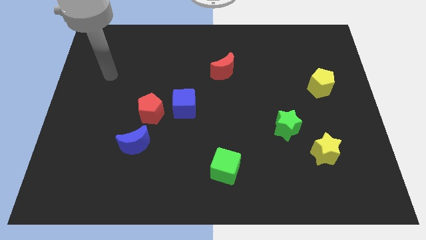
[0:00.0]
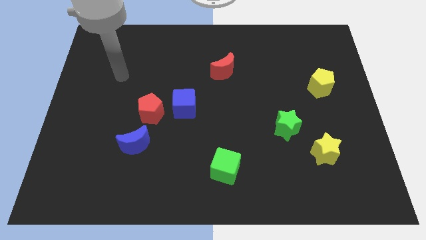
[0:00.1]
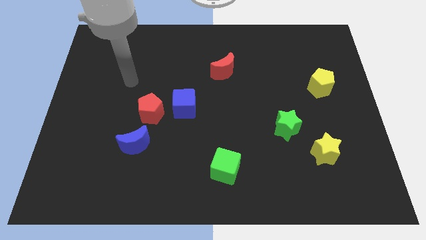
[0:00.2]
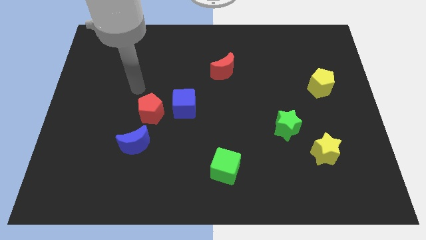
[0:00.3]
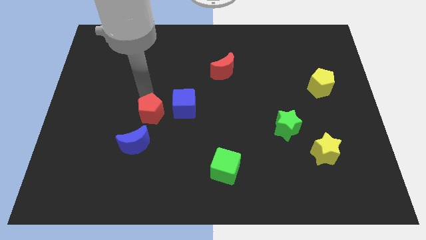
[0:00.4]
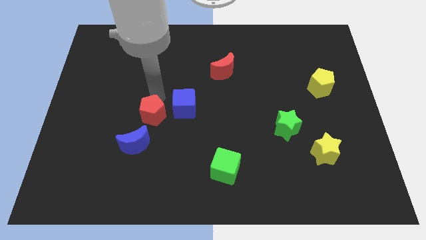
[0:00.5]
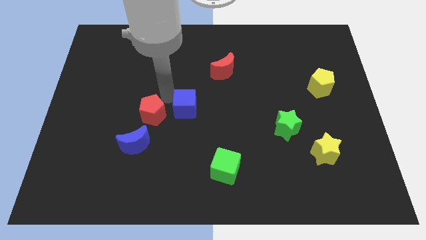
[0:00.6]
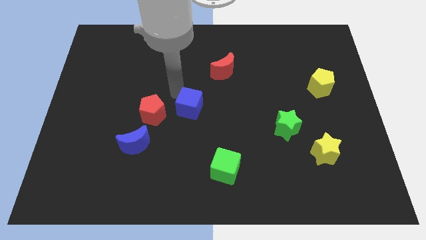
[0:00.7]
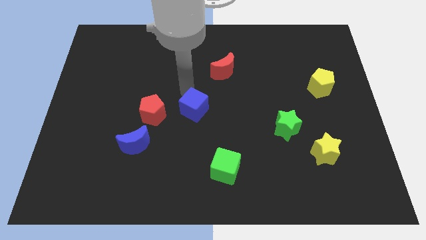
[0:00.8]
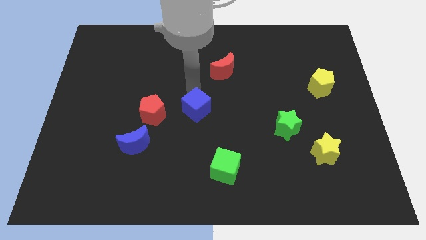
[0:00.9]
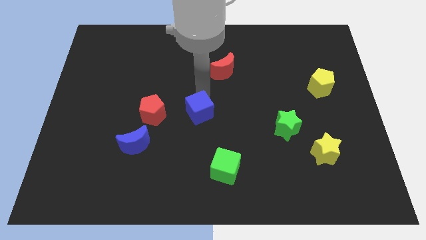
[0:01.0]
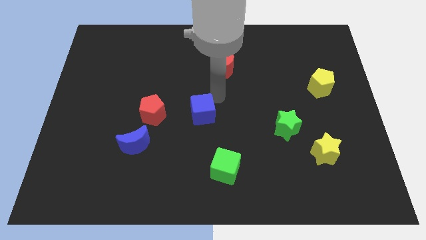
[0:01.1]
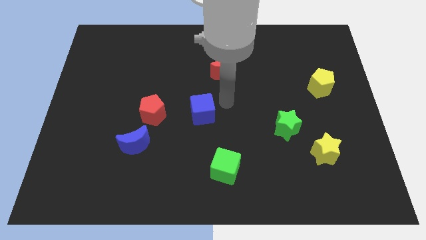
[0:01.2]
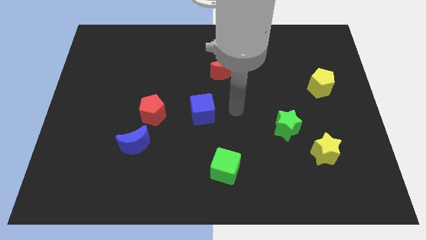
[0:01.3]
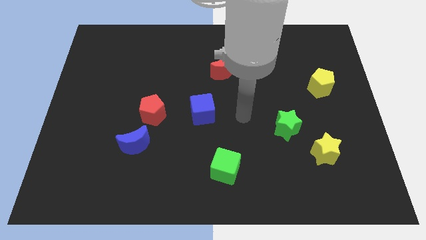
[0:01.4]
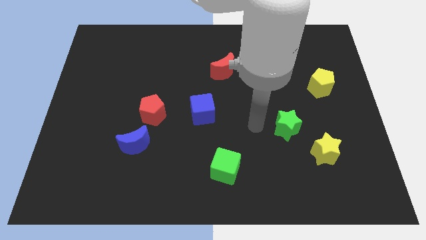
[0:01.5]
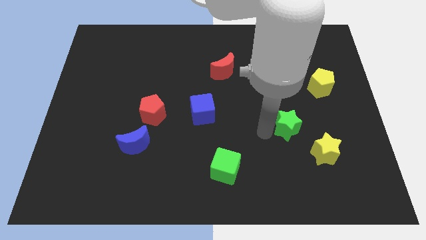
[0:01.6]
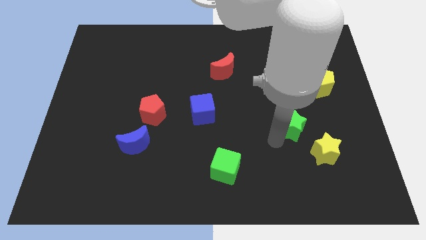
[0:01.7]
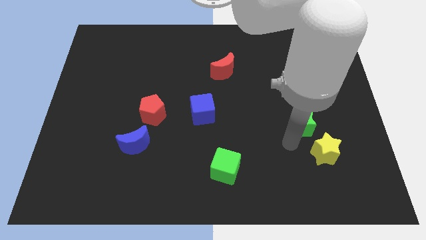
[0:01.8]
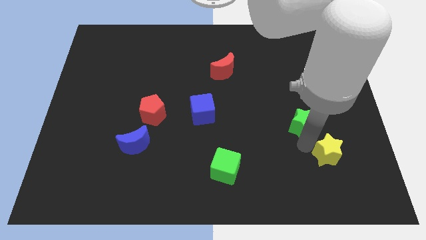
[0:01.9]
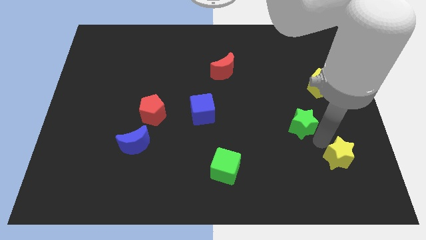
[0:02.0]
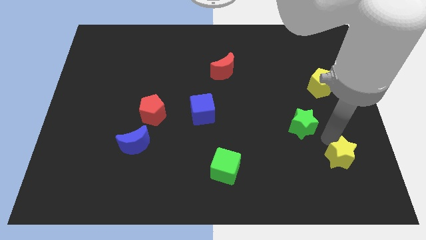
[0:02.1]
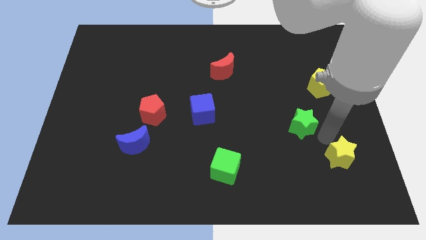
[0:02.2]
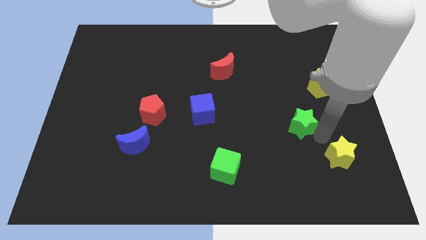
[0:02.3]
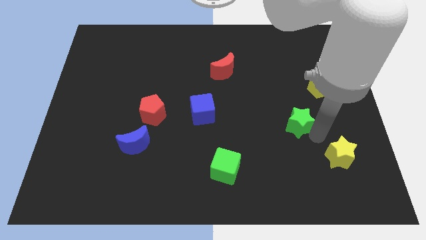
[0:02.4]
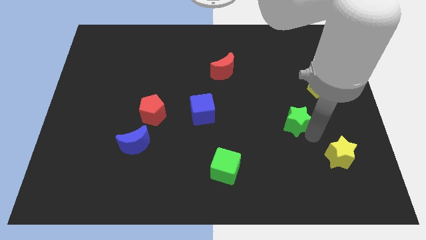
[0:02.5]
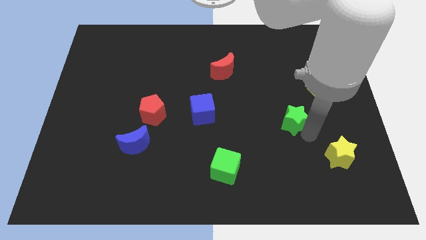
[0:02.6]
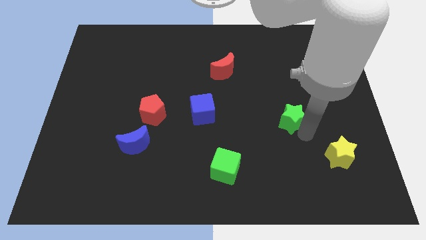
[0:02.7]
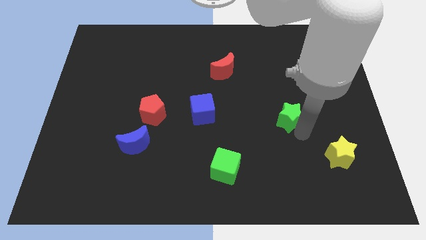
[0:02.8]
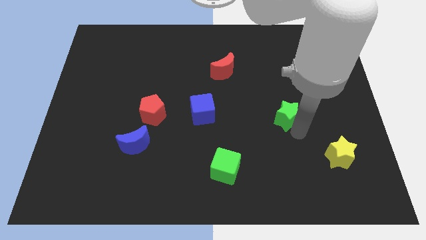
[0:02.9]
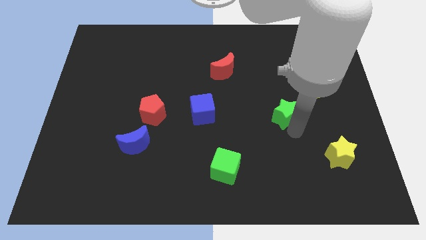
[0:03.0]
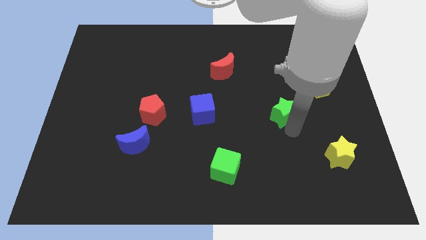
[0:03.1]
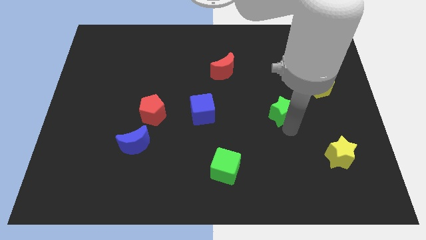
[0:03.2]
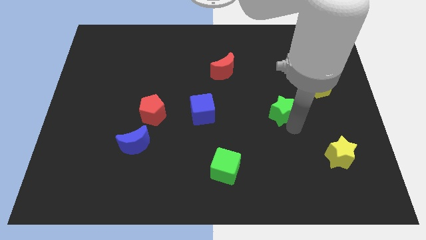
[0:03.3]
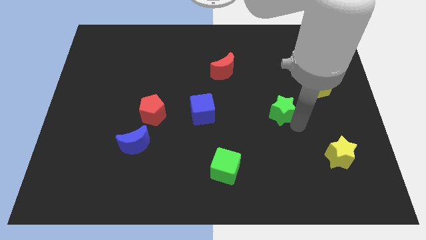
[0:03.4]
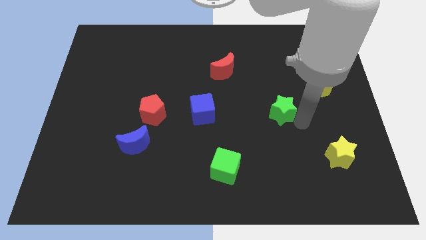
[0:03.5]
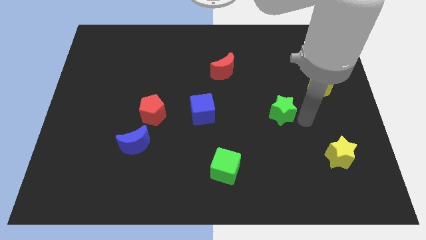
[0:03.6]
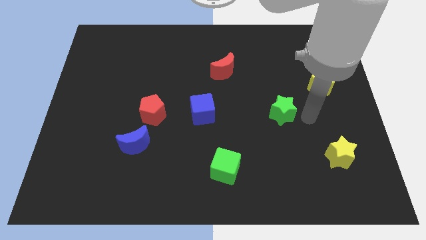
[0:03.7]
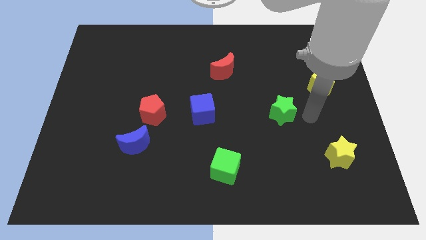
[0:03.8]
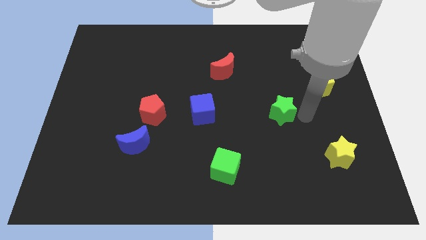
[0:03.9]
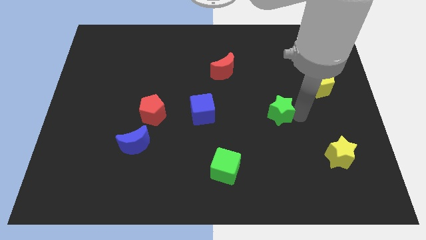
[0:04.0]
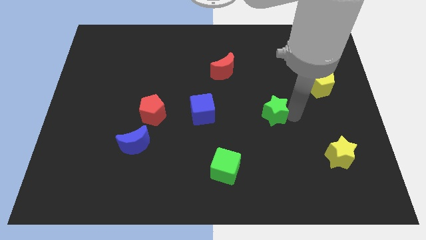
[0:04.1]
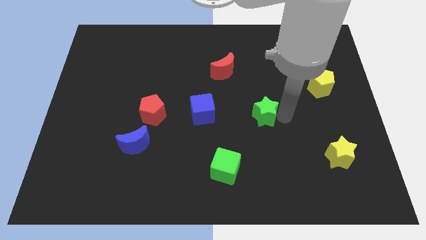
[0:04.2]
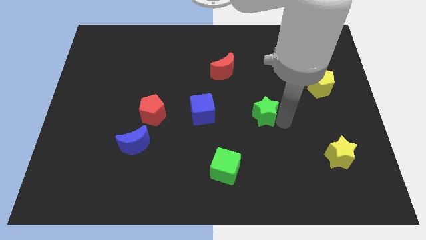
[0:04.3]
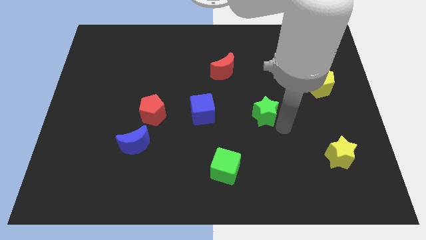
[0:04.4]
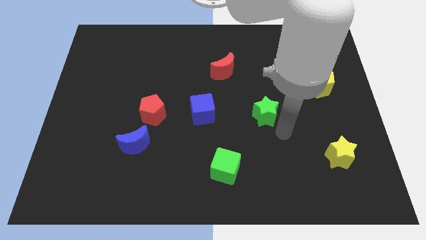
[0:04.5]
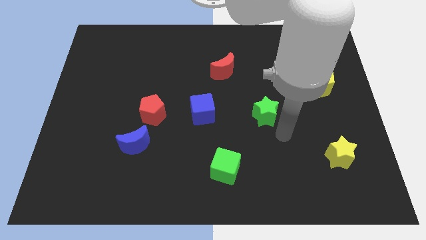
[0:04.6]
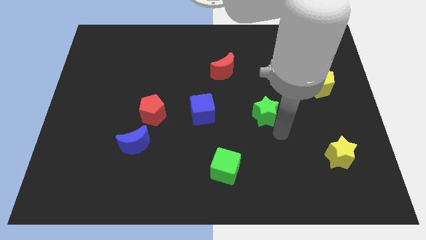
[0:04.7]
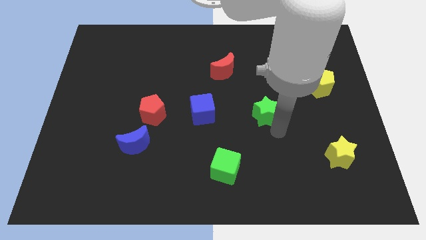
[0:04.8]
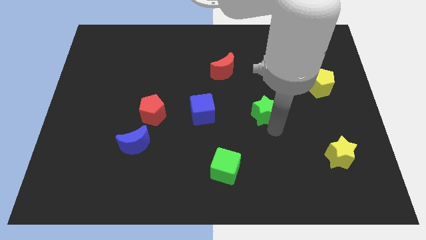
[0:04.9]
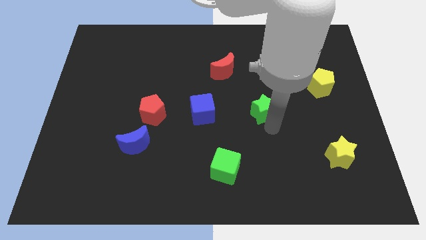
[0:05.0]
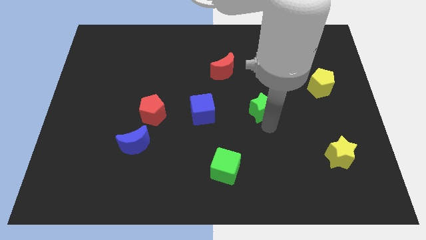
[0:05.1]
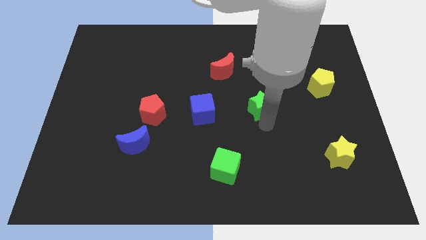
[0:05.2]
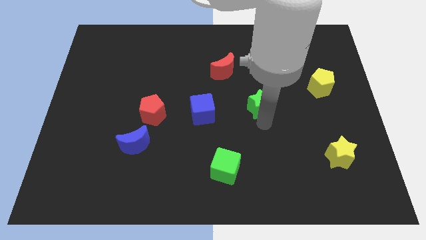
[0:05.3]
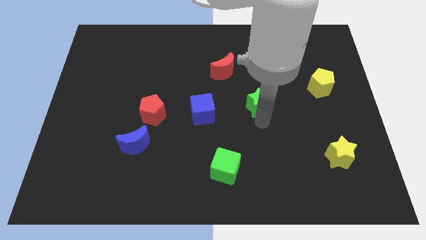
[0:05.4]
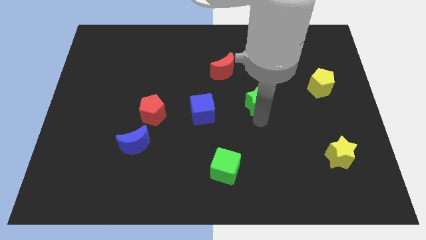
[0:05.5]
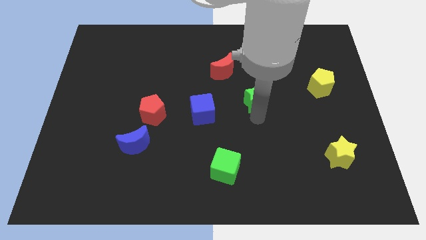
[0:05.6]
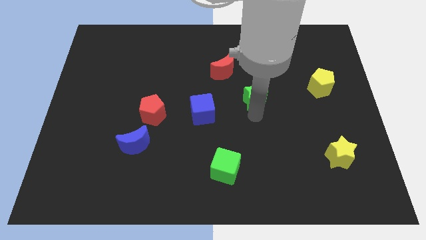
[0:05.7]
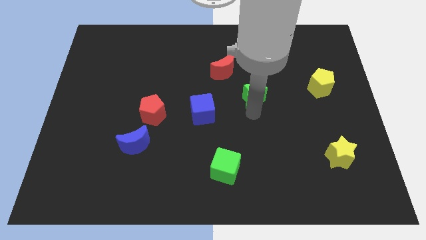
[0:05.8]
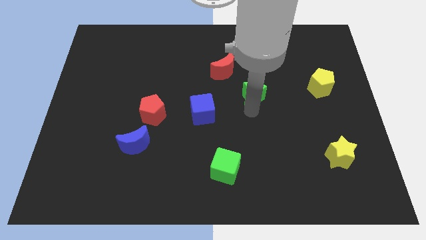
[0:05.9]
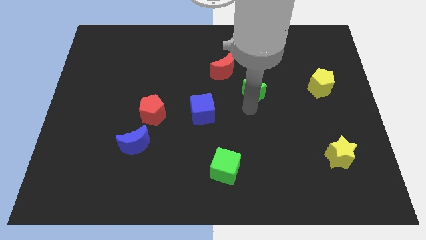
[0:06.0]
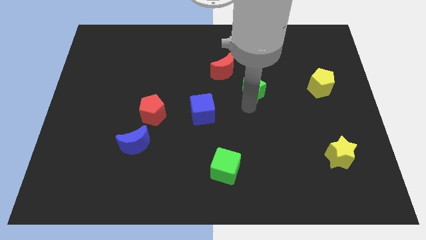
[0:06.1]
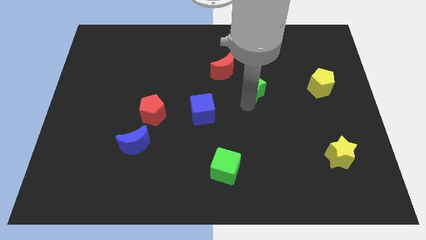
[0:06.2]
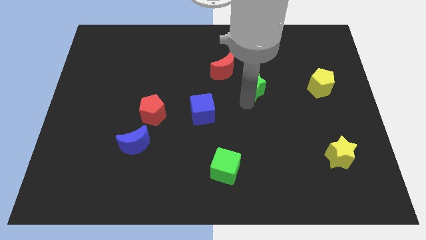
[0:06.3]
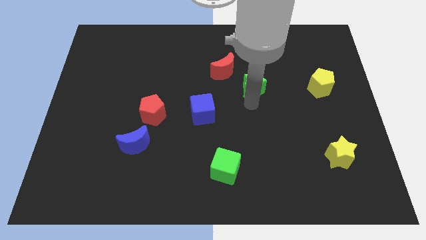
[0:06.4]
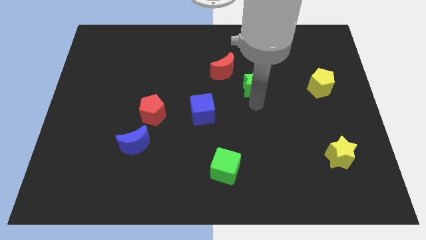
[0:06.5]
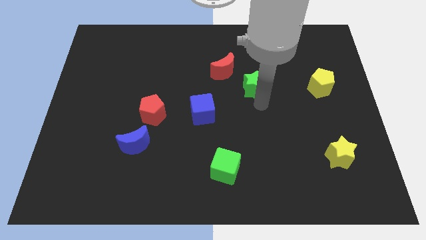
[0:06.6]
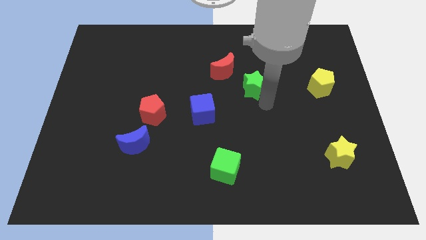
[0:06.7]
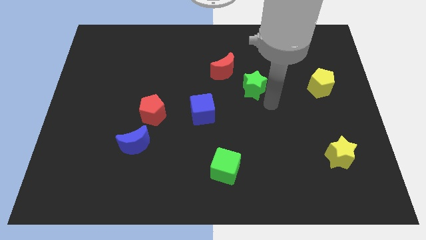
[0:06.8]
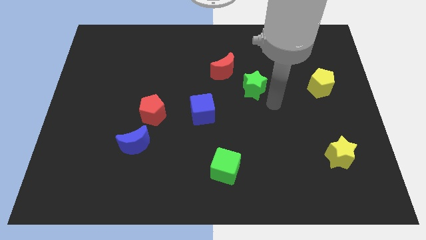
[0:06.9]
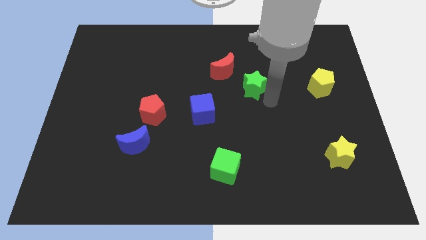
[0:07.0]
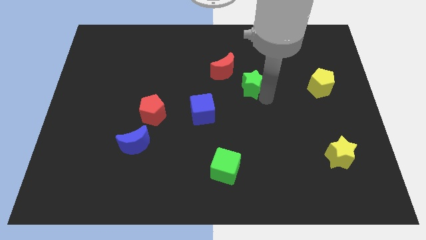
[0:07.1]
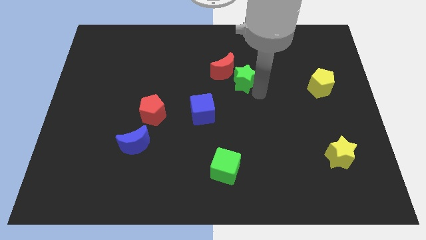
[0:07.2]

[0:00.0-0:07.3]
slide the green star close to the red moon

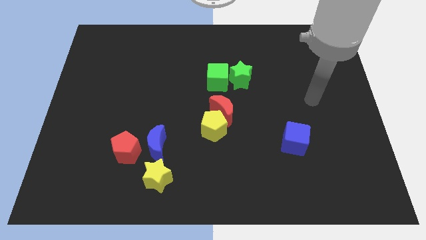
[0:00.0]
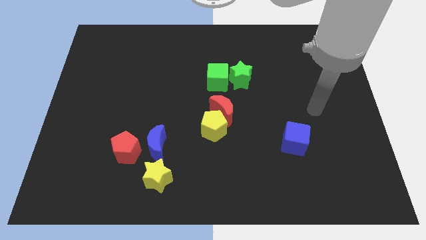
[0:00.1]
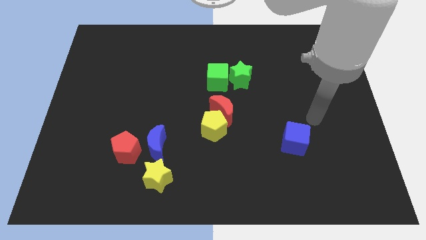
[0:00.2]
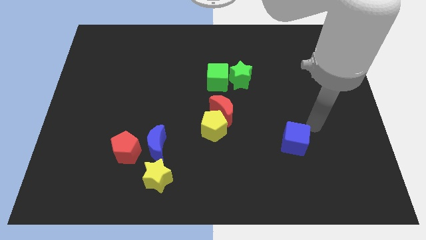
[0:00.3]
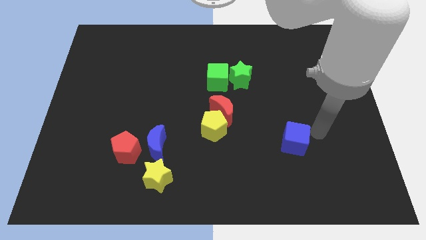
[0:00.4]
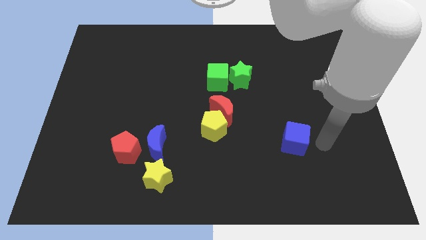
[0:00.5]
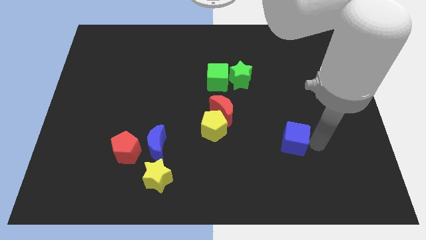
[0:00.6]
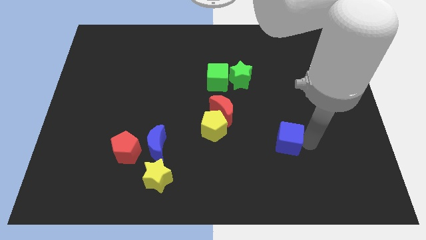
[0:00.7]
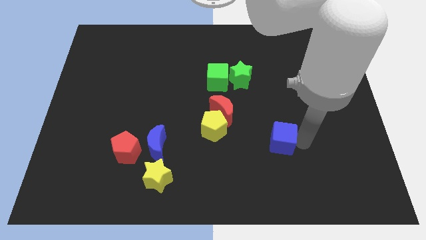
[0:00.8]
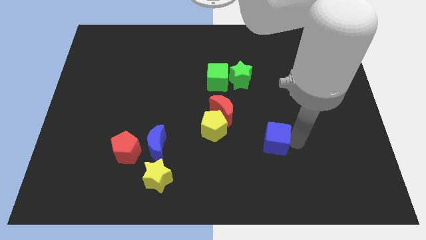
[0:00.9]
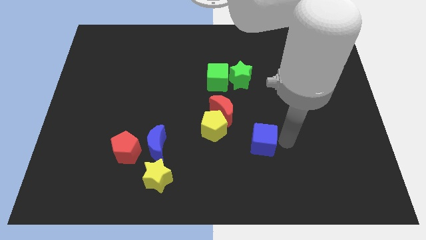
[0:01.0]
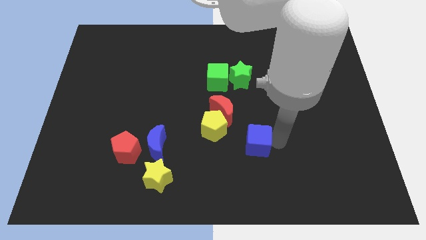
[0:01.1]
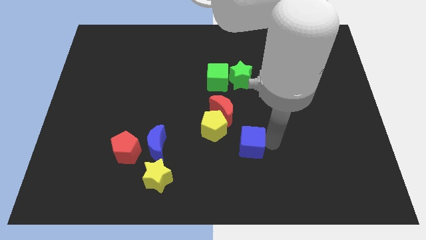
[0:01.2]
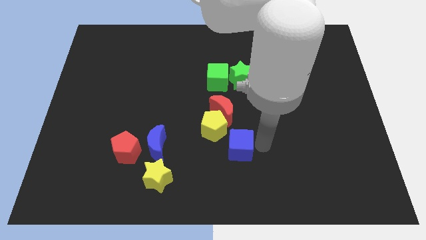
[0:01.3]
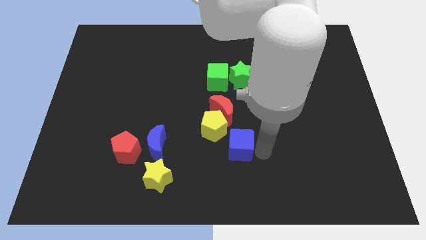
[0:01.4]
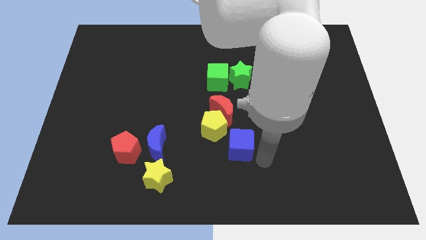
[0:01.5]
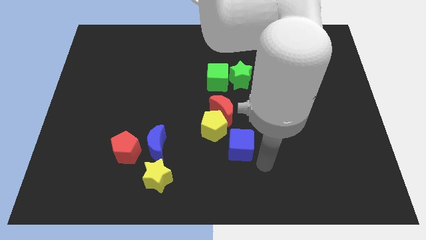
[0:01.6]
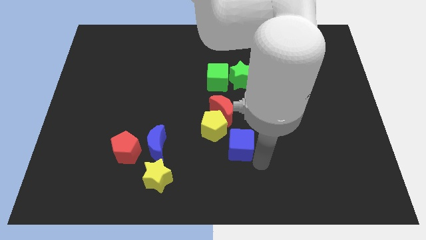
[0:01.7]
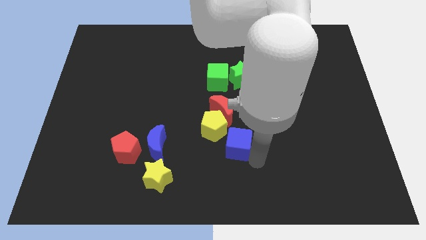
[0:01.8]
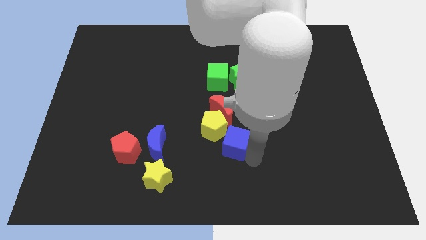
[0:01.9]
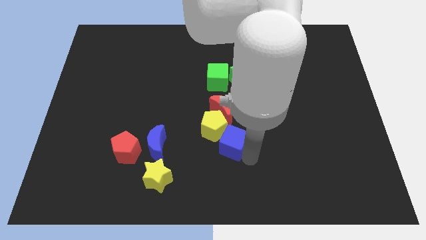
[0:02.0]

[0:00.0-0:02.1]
put the blue cube next to the yellow pentagon
